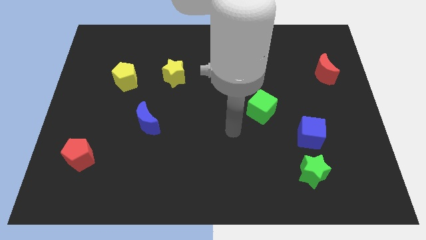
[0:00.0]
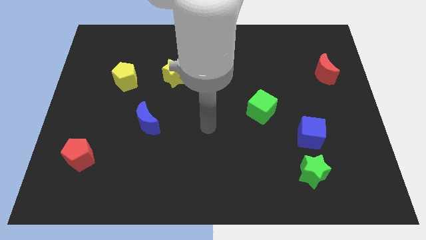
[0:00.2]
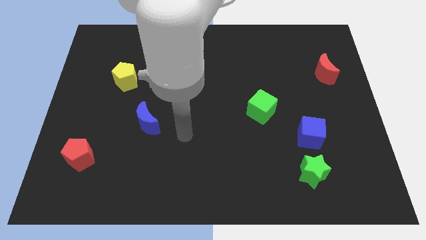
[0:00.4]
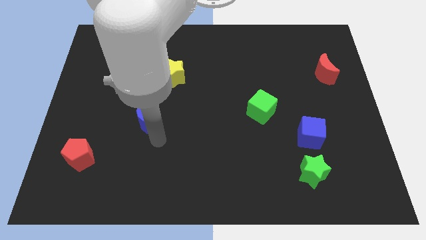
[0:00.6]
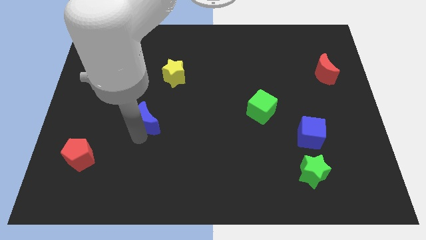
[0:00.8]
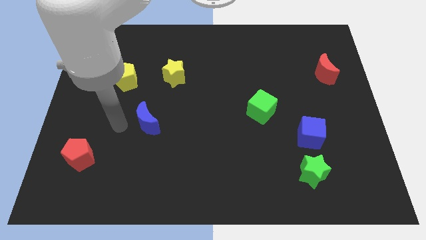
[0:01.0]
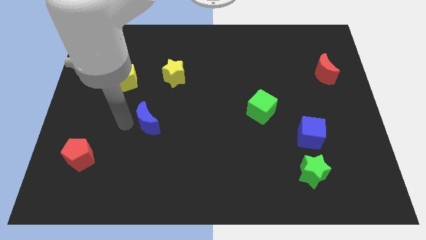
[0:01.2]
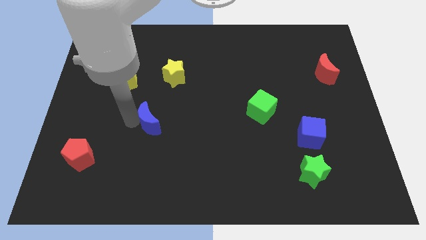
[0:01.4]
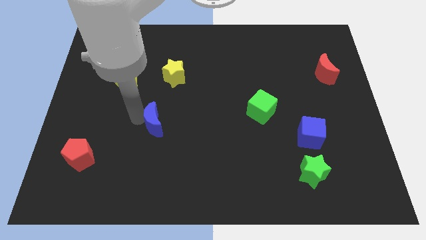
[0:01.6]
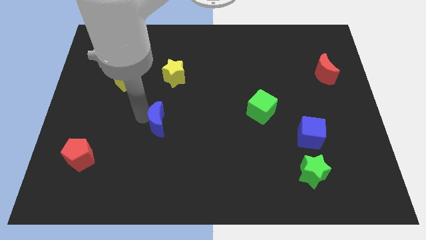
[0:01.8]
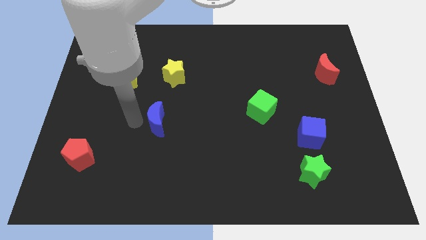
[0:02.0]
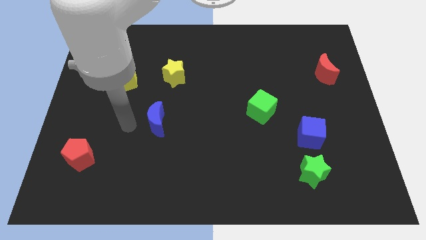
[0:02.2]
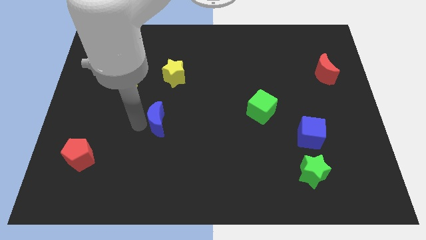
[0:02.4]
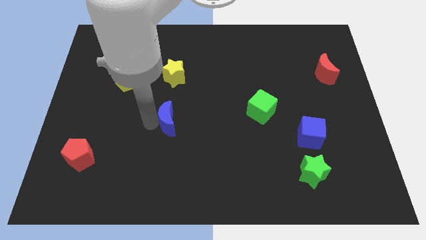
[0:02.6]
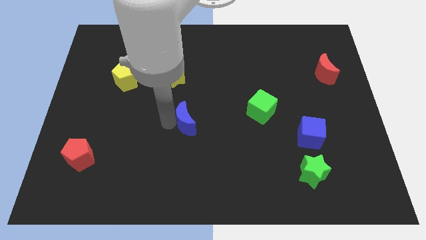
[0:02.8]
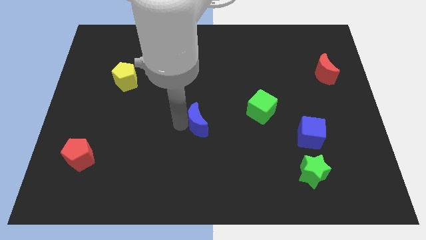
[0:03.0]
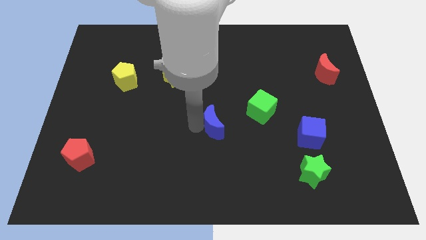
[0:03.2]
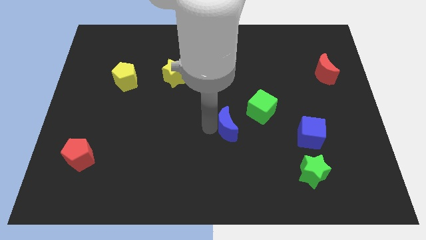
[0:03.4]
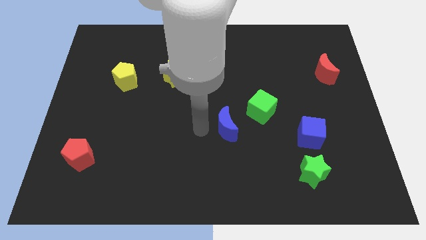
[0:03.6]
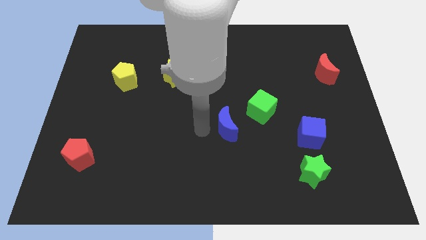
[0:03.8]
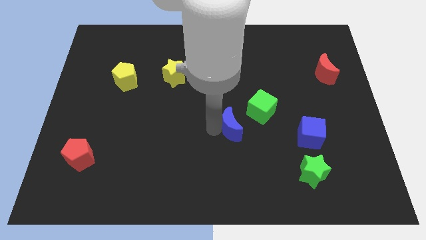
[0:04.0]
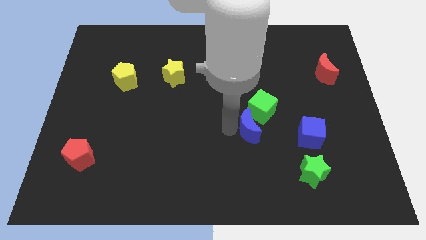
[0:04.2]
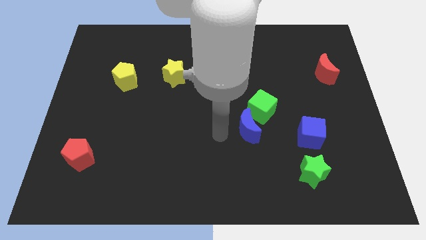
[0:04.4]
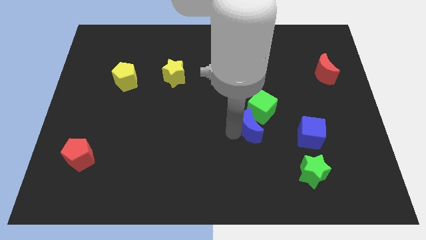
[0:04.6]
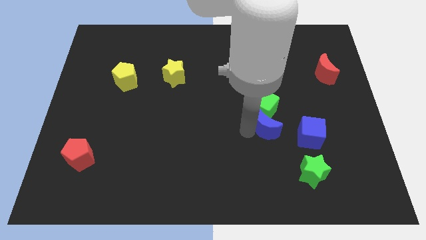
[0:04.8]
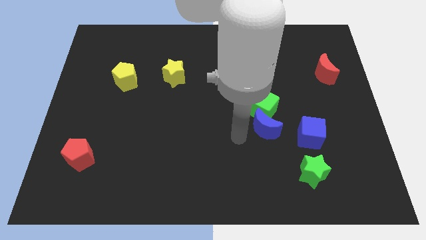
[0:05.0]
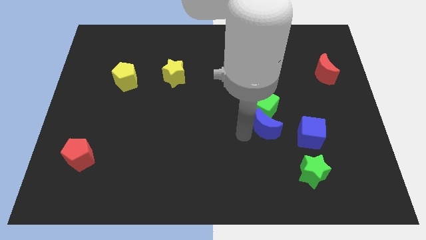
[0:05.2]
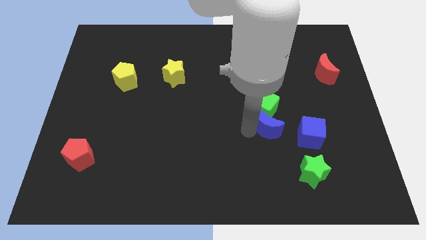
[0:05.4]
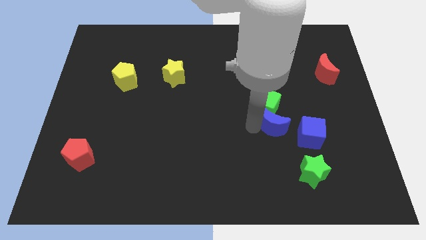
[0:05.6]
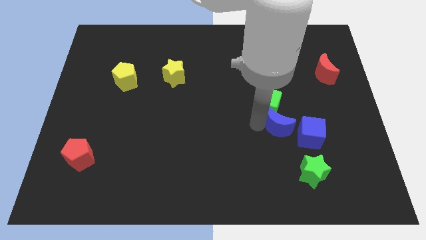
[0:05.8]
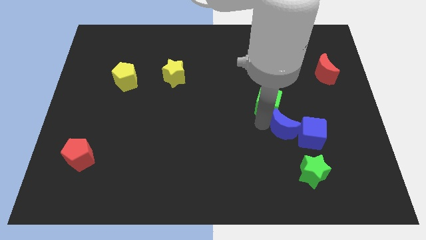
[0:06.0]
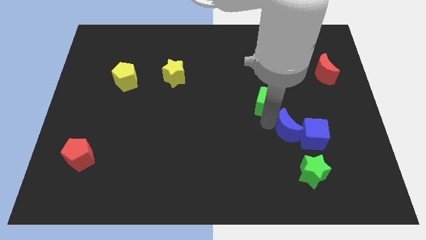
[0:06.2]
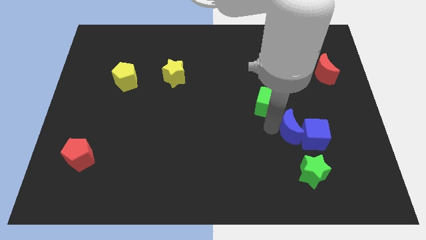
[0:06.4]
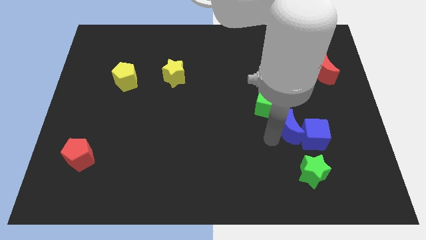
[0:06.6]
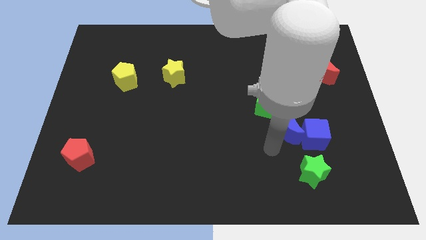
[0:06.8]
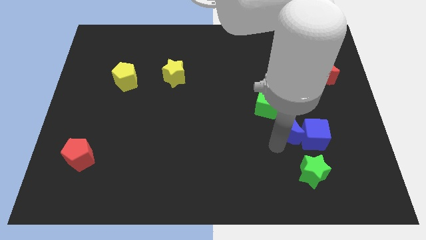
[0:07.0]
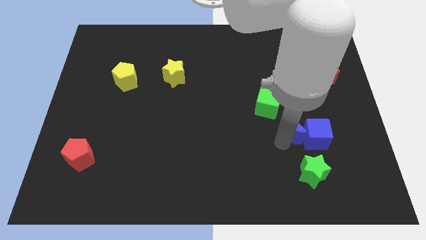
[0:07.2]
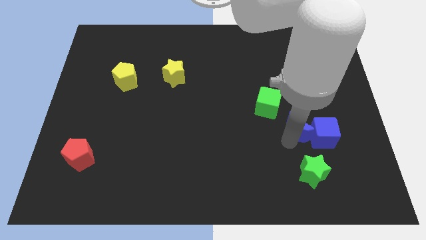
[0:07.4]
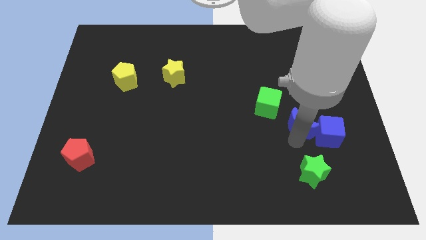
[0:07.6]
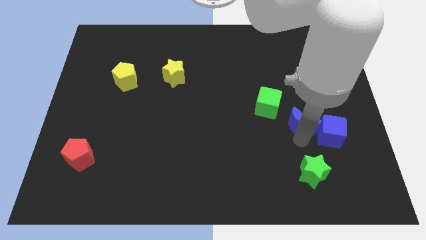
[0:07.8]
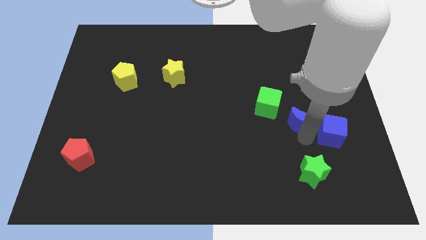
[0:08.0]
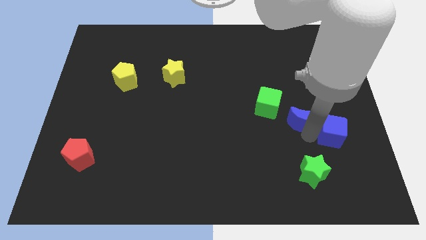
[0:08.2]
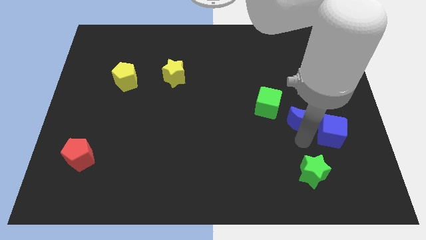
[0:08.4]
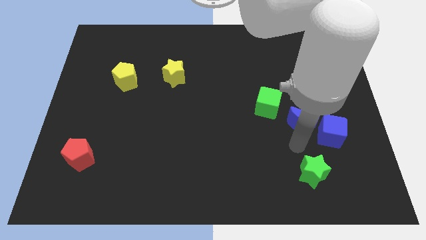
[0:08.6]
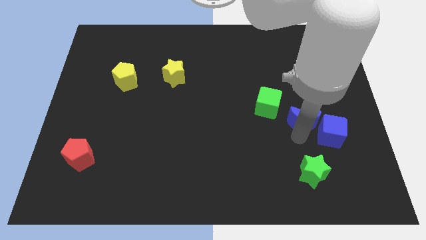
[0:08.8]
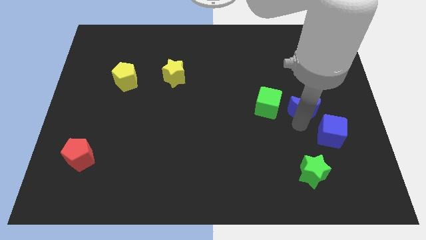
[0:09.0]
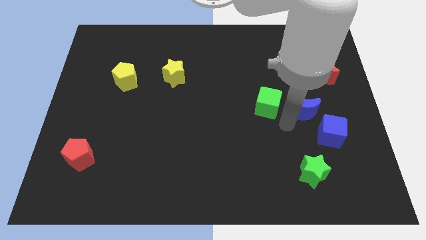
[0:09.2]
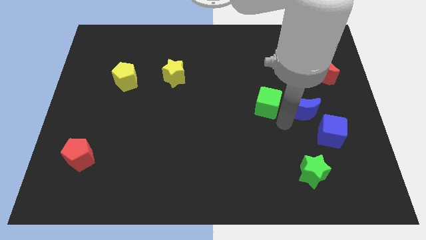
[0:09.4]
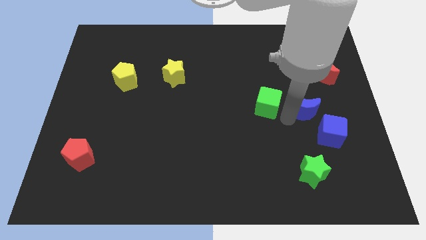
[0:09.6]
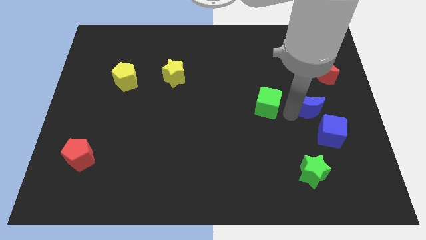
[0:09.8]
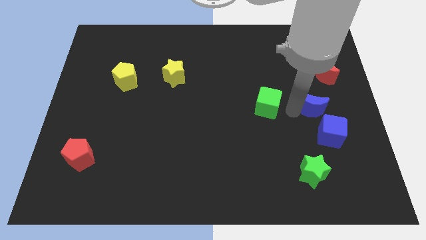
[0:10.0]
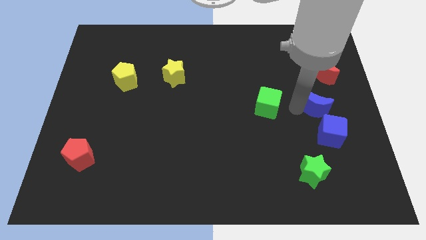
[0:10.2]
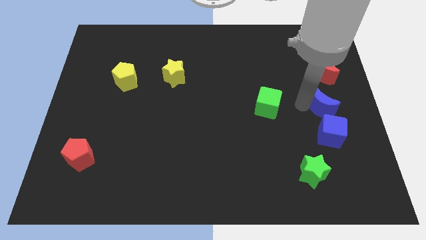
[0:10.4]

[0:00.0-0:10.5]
move the blue moon to the right side of the board

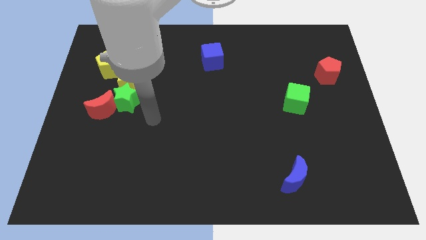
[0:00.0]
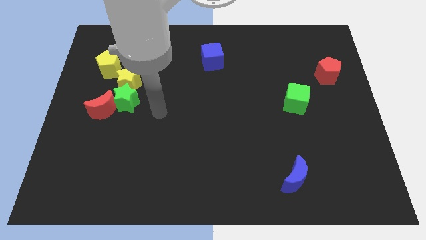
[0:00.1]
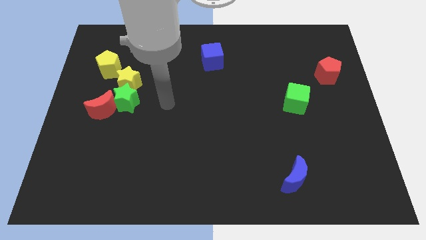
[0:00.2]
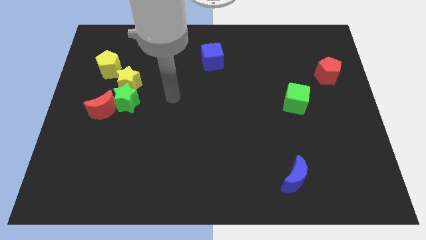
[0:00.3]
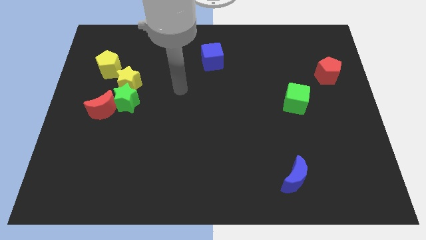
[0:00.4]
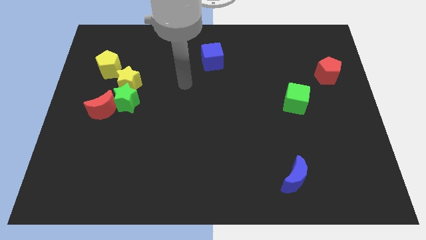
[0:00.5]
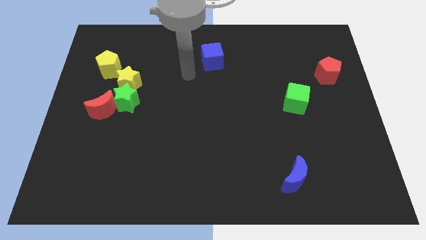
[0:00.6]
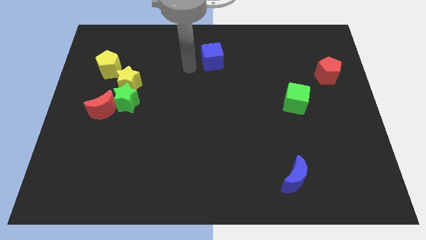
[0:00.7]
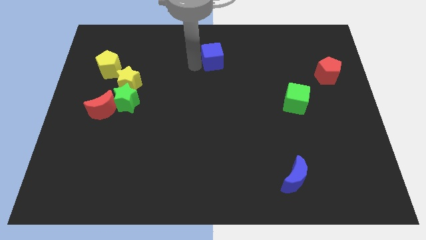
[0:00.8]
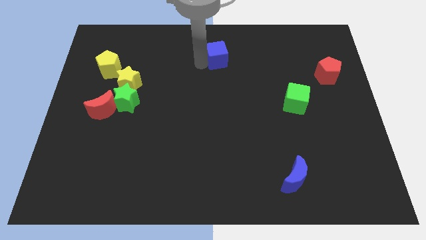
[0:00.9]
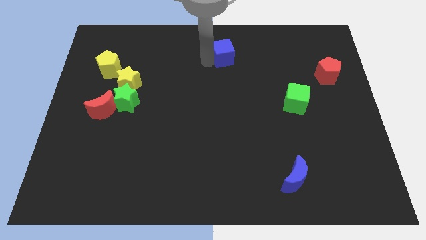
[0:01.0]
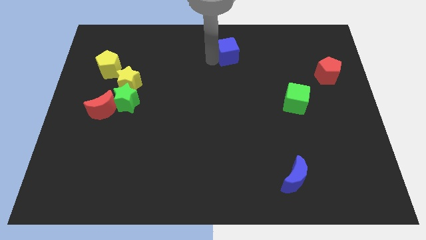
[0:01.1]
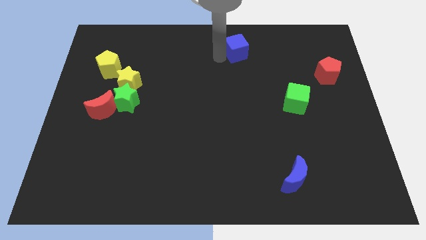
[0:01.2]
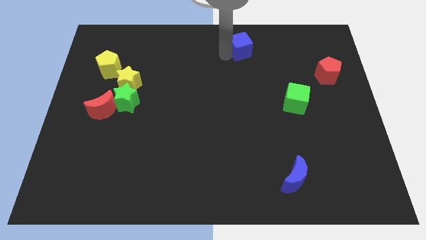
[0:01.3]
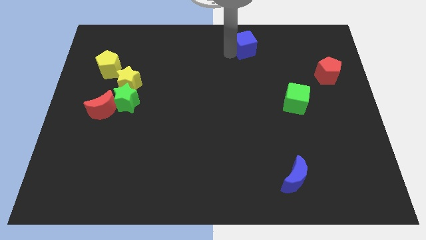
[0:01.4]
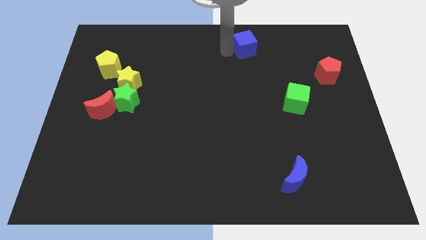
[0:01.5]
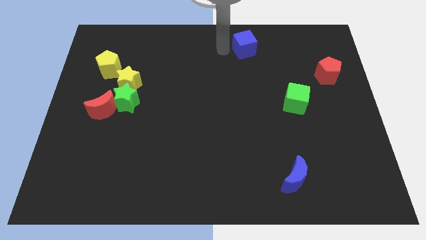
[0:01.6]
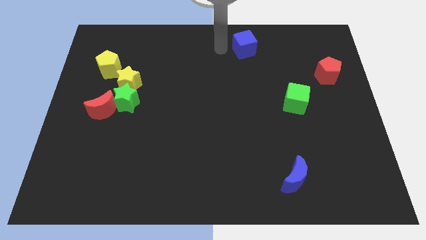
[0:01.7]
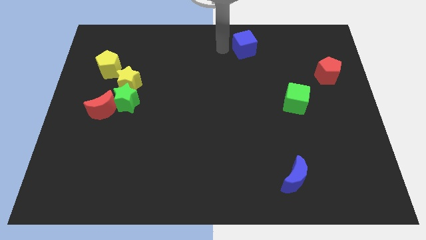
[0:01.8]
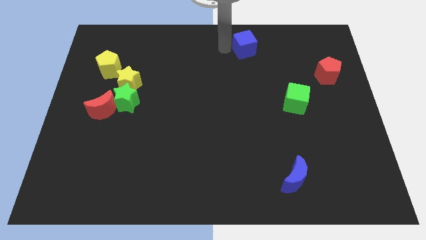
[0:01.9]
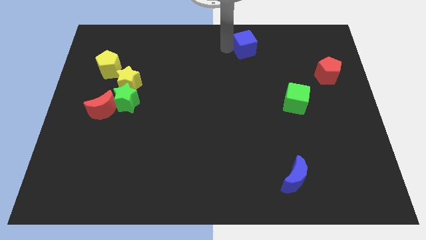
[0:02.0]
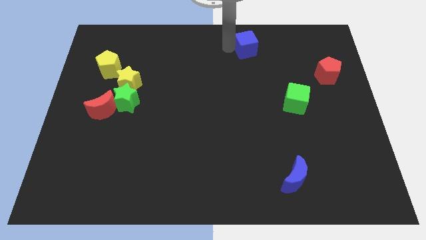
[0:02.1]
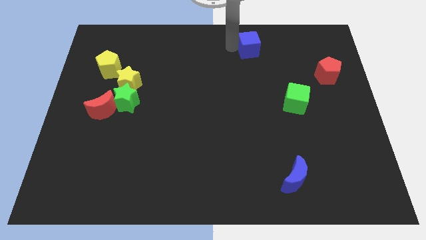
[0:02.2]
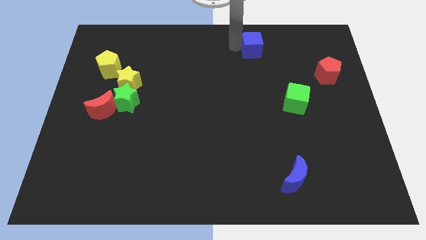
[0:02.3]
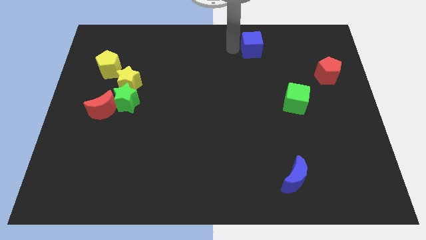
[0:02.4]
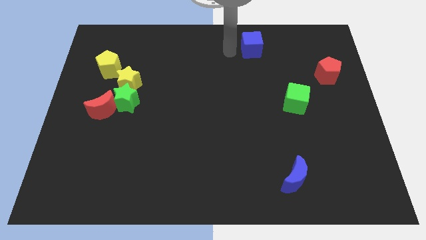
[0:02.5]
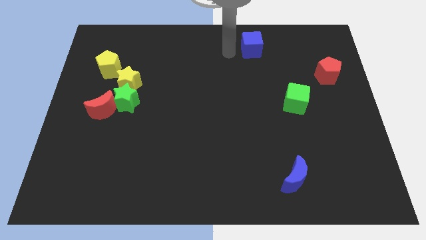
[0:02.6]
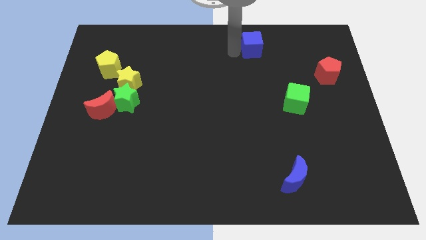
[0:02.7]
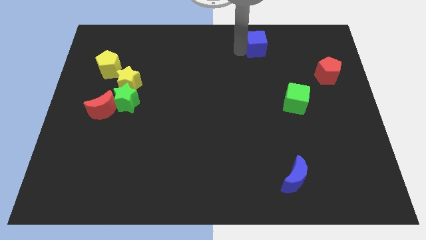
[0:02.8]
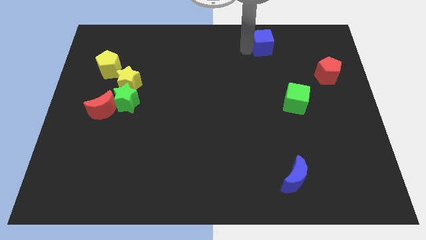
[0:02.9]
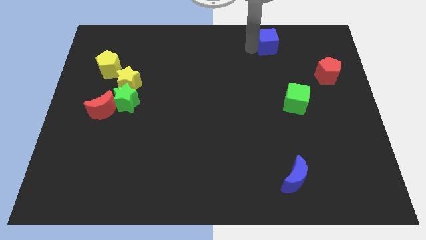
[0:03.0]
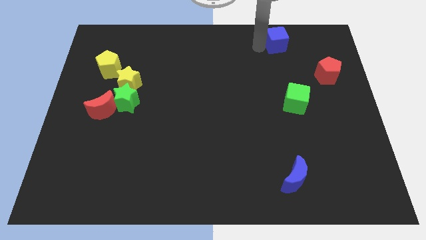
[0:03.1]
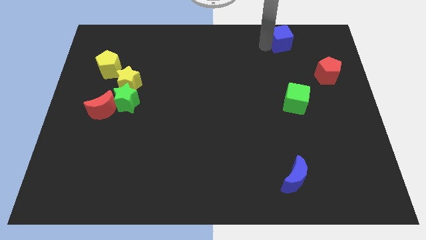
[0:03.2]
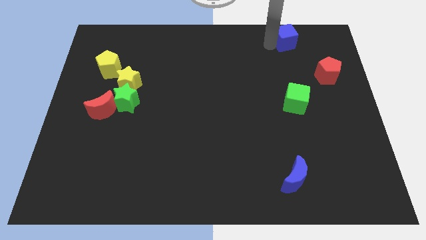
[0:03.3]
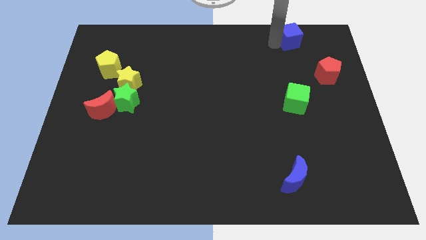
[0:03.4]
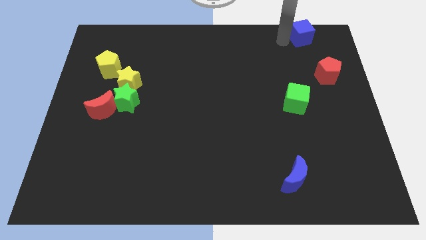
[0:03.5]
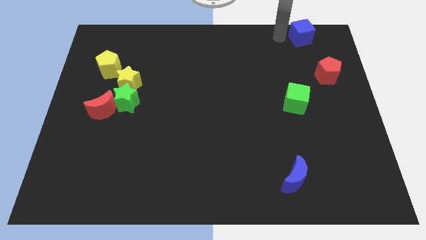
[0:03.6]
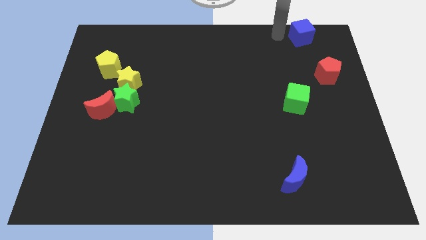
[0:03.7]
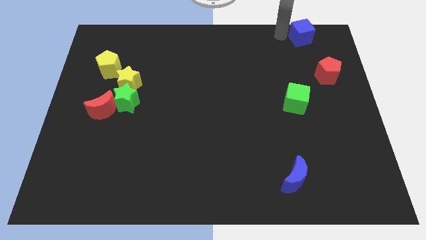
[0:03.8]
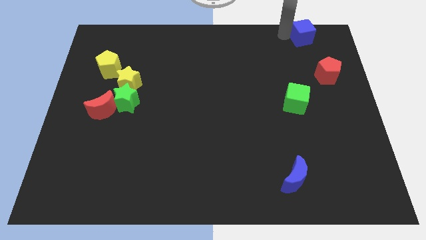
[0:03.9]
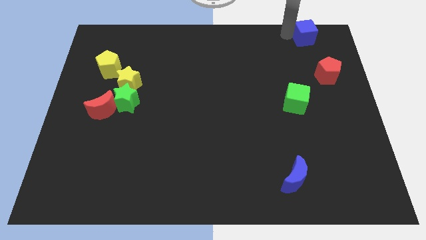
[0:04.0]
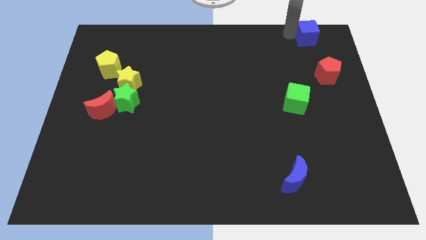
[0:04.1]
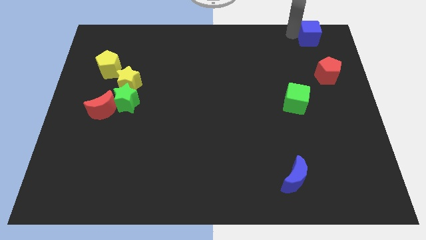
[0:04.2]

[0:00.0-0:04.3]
slide the blue cube to the top right corner
